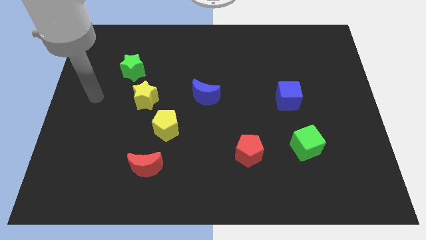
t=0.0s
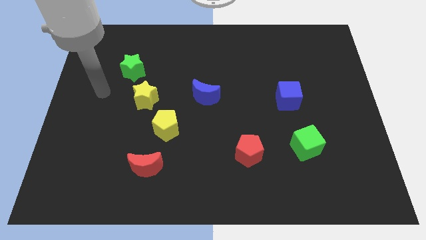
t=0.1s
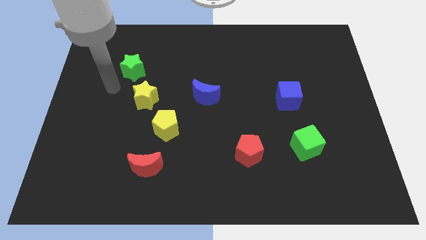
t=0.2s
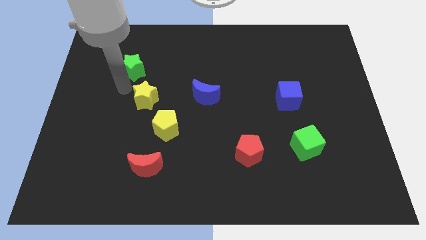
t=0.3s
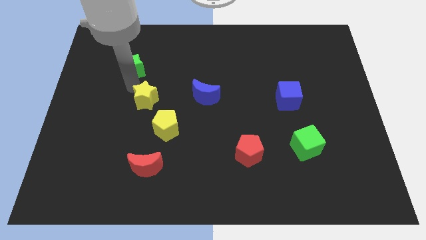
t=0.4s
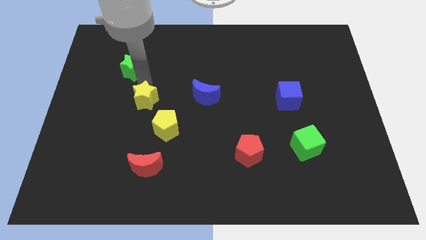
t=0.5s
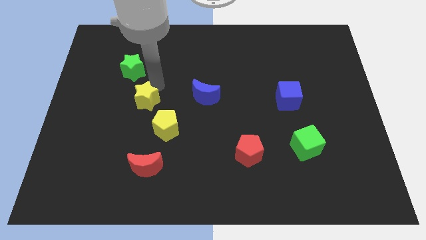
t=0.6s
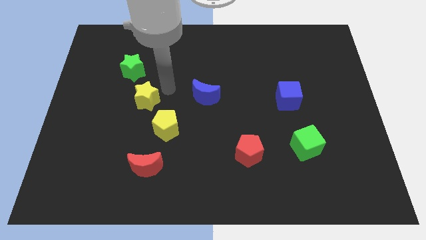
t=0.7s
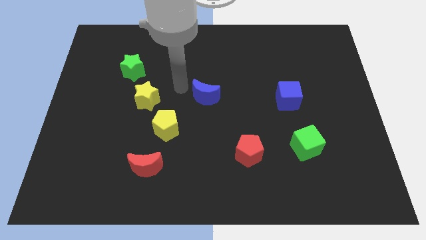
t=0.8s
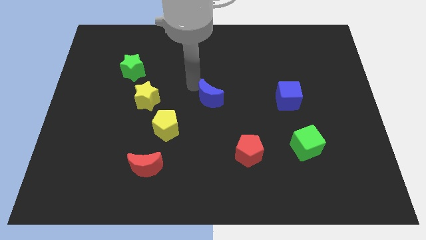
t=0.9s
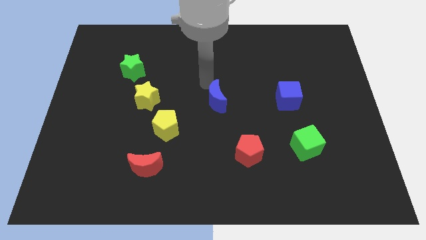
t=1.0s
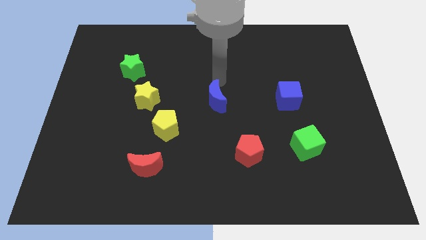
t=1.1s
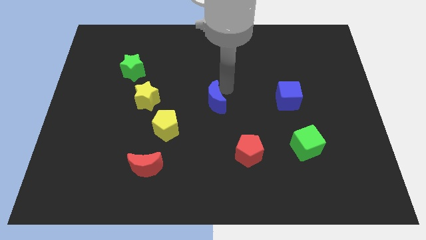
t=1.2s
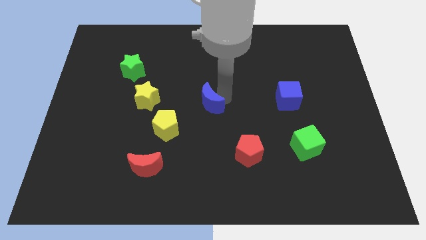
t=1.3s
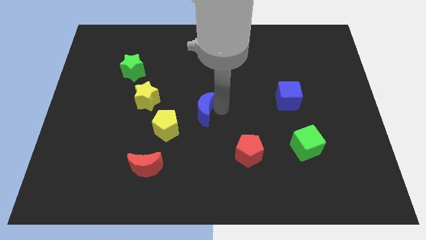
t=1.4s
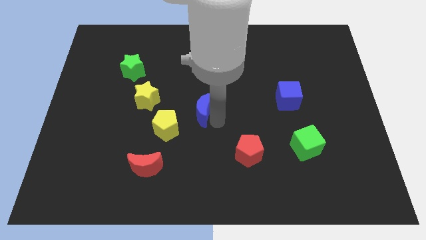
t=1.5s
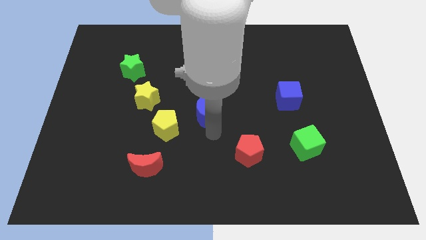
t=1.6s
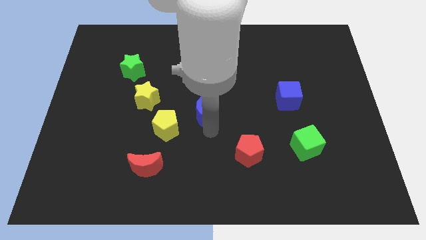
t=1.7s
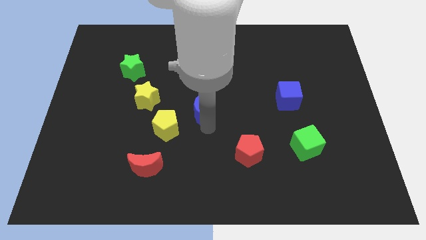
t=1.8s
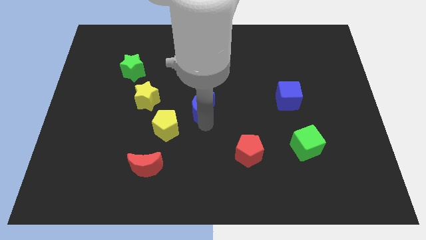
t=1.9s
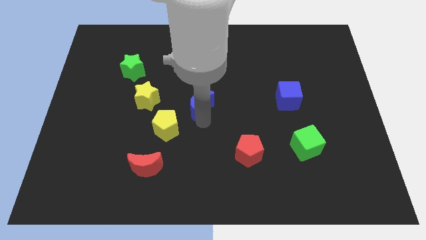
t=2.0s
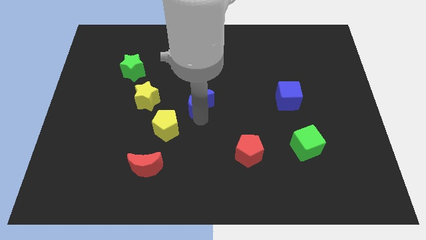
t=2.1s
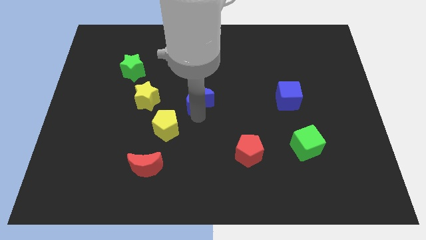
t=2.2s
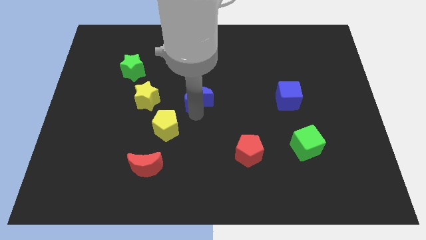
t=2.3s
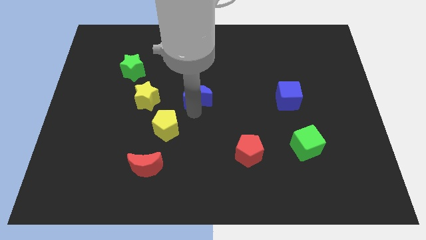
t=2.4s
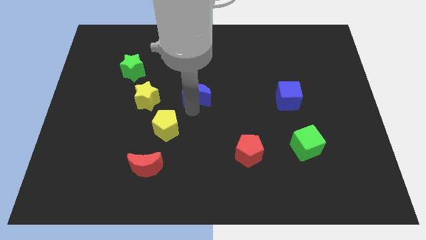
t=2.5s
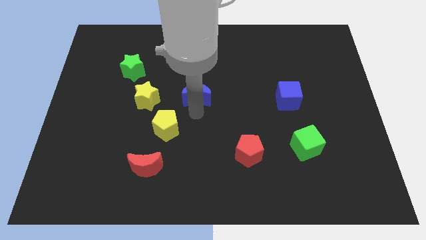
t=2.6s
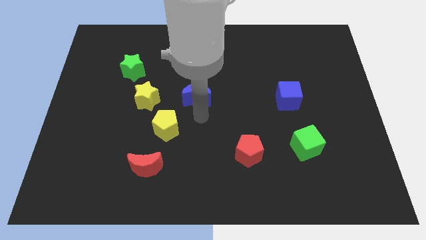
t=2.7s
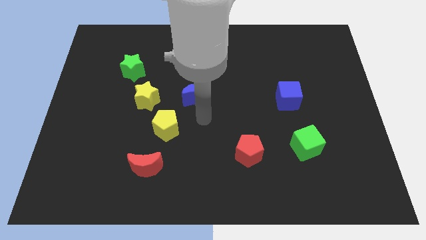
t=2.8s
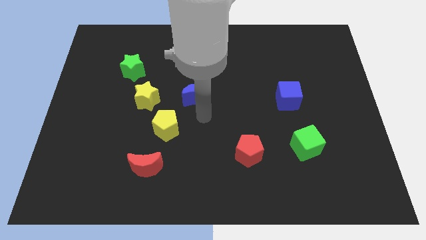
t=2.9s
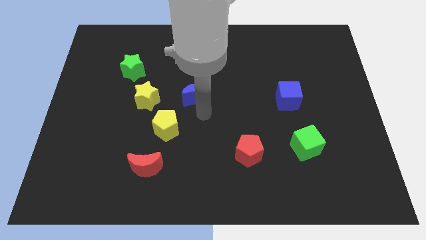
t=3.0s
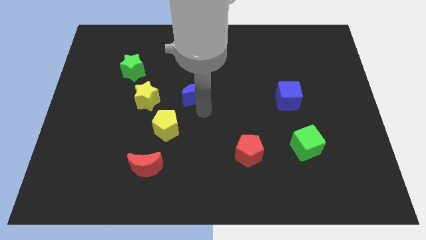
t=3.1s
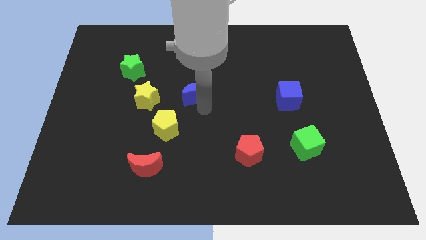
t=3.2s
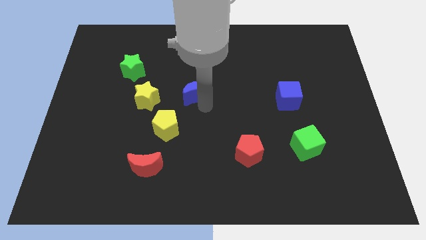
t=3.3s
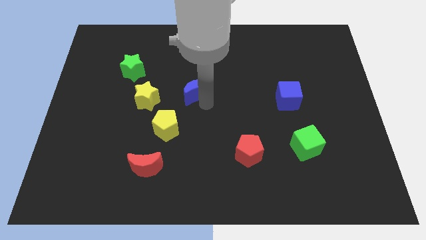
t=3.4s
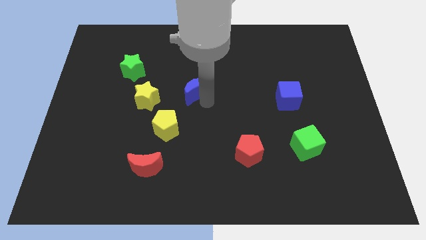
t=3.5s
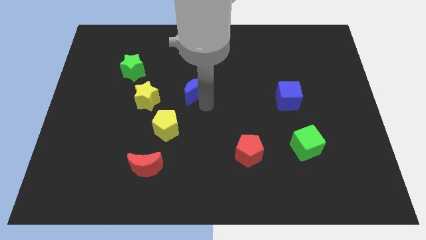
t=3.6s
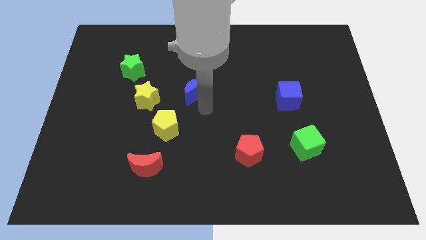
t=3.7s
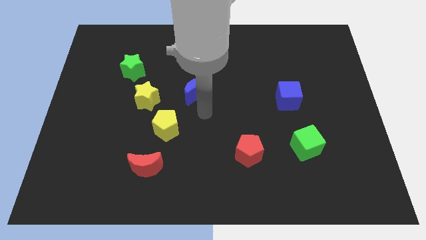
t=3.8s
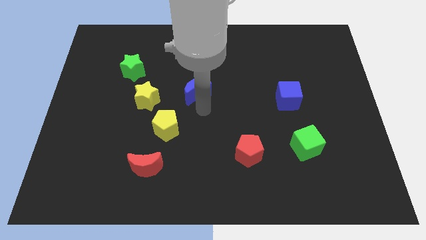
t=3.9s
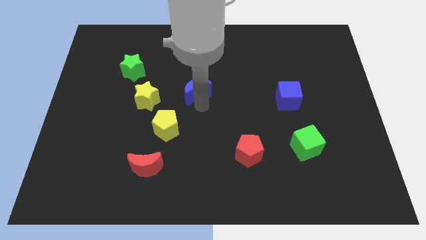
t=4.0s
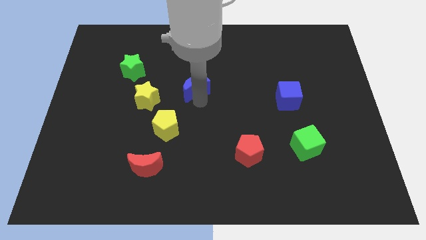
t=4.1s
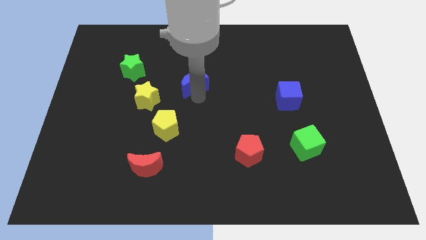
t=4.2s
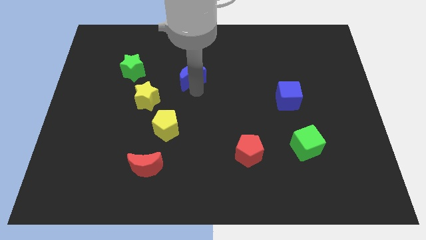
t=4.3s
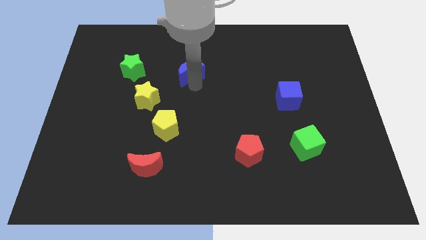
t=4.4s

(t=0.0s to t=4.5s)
slightly slide the blue moon diagonally upwards and to the left

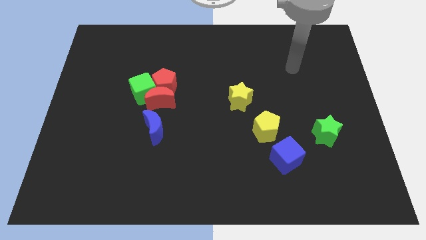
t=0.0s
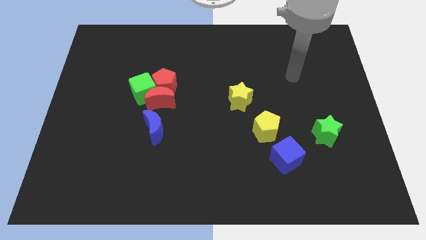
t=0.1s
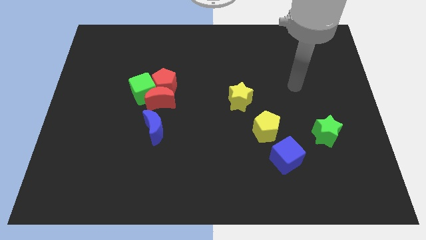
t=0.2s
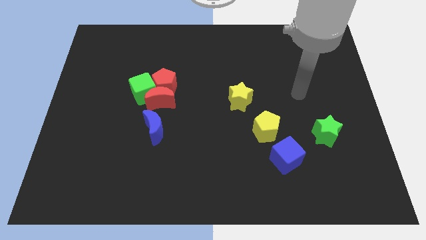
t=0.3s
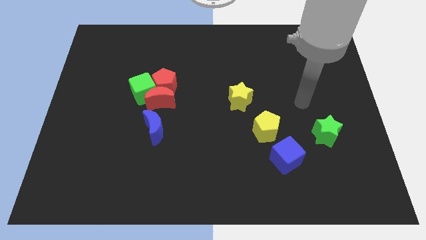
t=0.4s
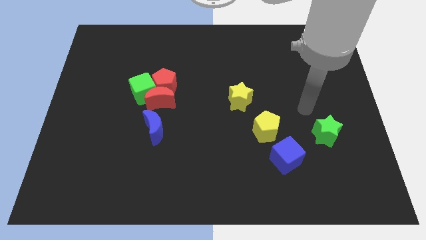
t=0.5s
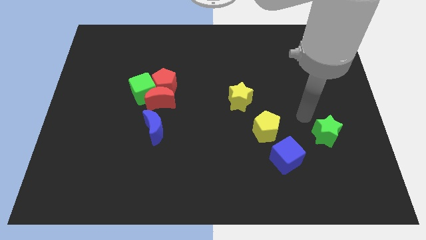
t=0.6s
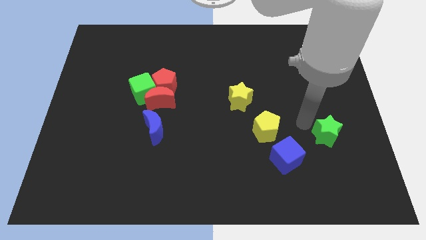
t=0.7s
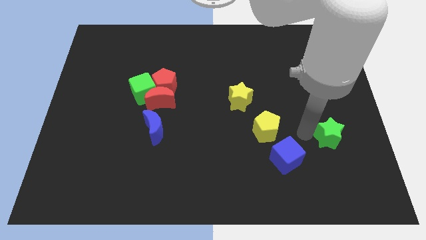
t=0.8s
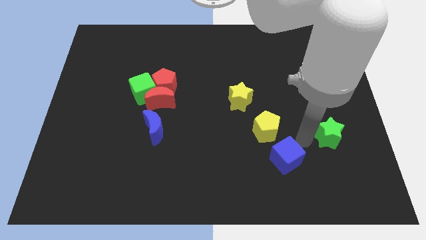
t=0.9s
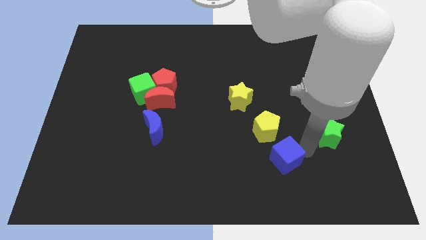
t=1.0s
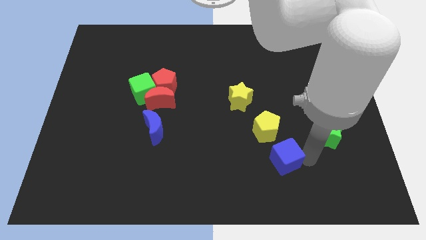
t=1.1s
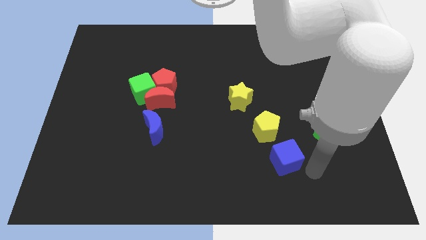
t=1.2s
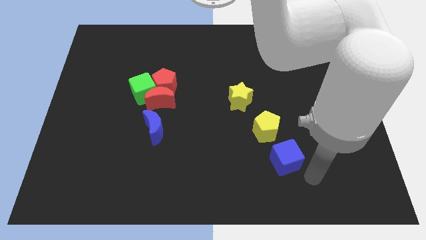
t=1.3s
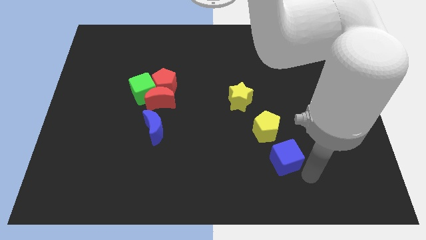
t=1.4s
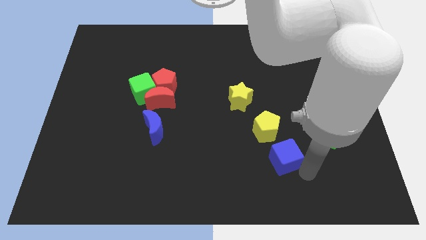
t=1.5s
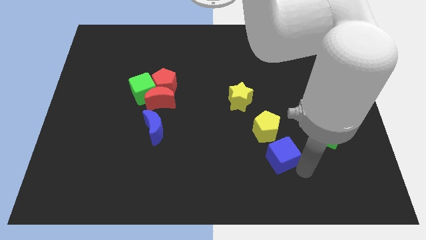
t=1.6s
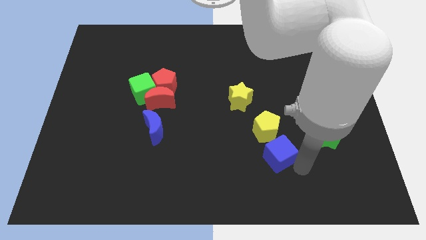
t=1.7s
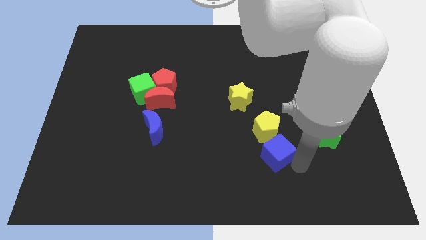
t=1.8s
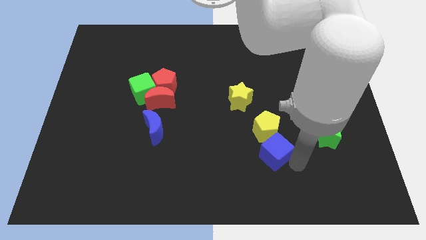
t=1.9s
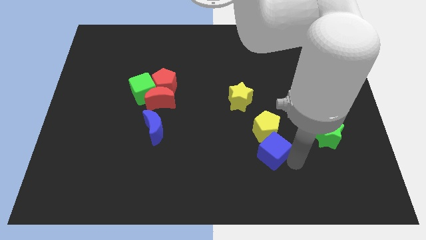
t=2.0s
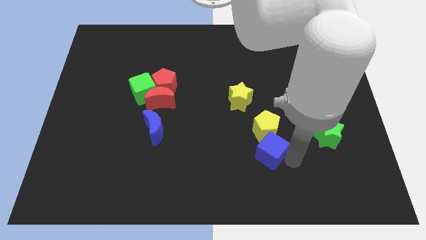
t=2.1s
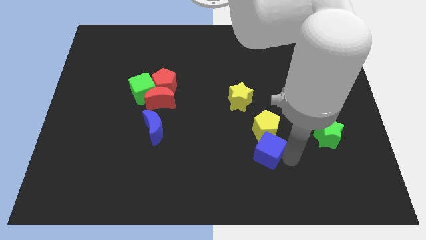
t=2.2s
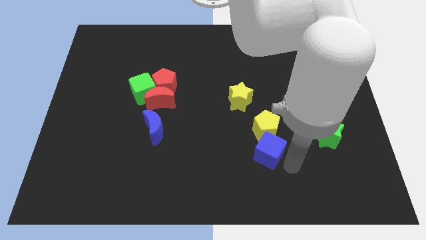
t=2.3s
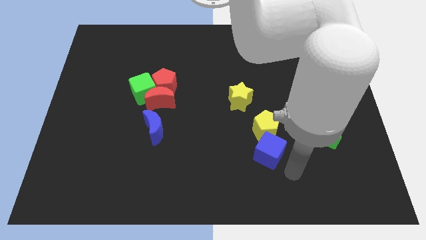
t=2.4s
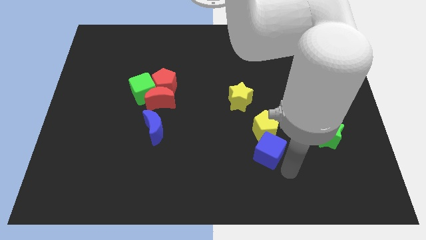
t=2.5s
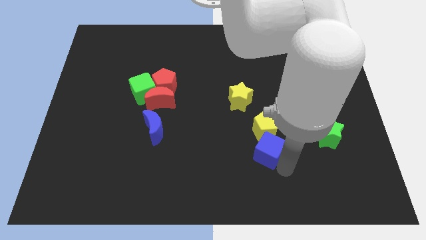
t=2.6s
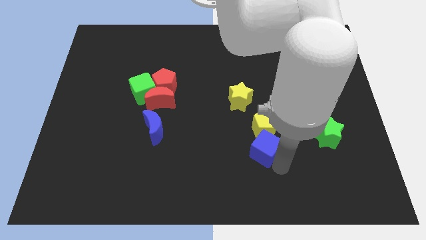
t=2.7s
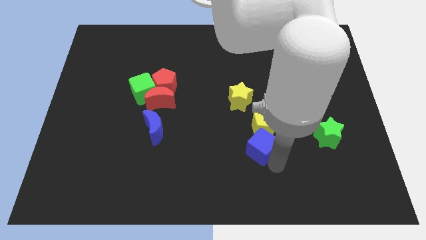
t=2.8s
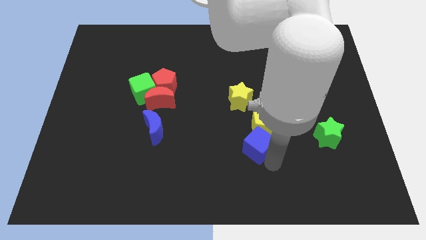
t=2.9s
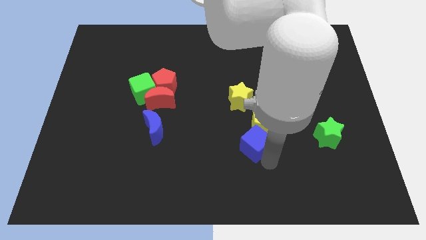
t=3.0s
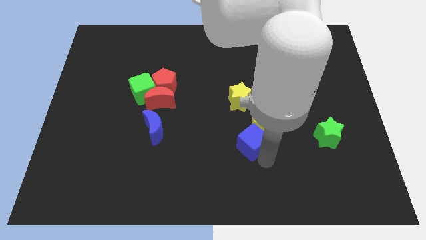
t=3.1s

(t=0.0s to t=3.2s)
push the blue cube somewhat upwards and to the left diagonally

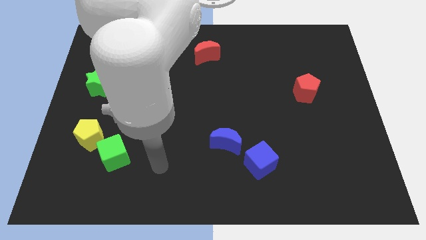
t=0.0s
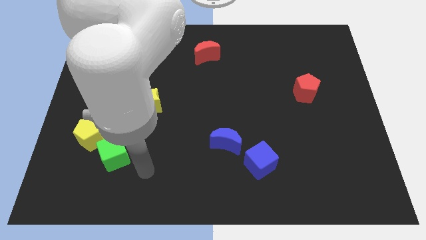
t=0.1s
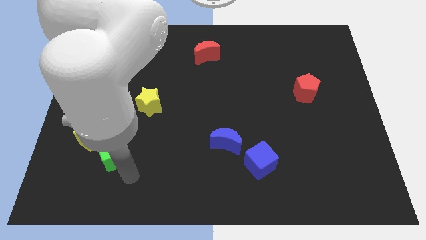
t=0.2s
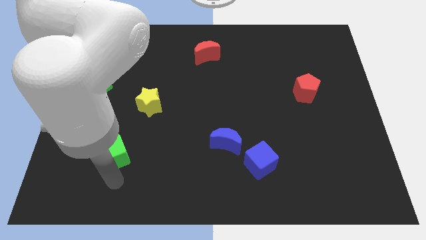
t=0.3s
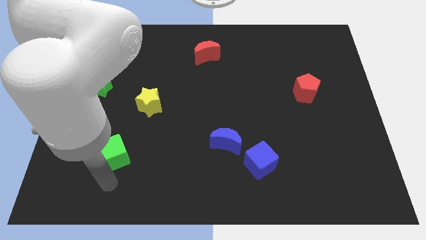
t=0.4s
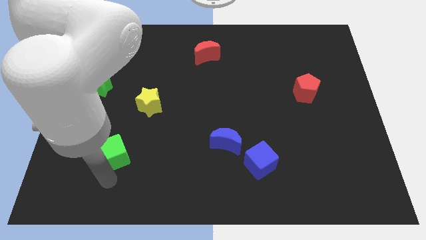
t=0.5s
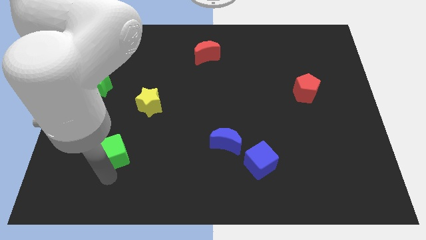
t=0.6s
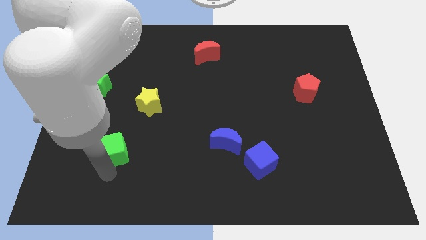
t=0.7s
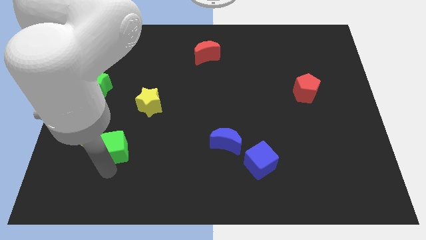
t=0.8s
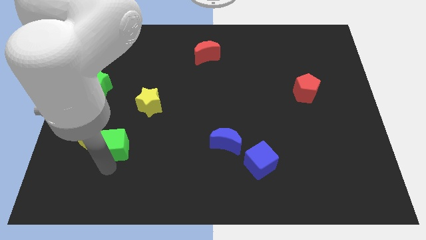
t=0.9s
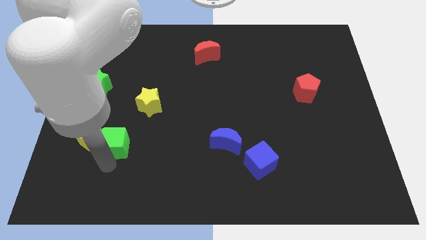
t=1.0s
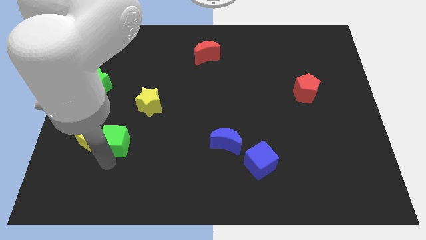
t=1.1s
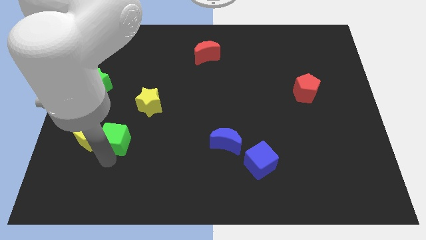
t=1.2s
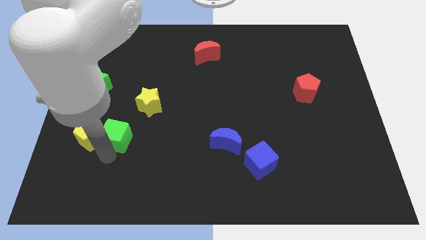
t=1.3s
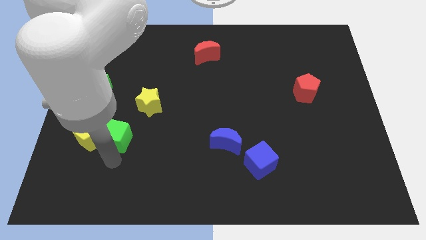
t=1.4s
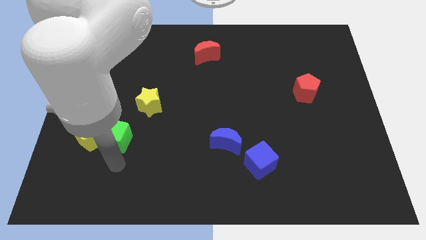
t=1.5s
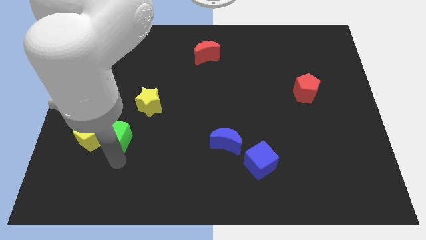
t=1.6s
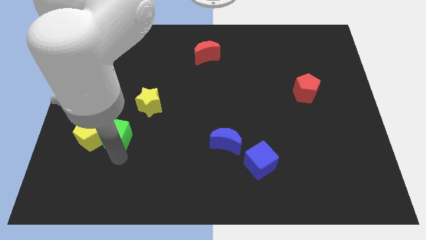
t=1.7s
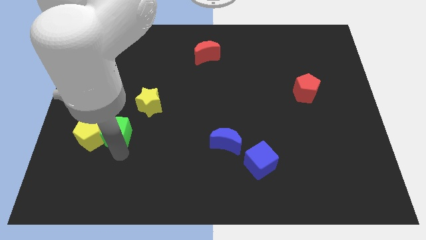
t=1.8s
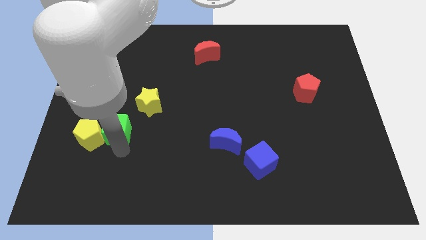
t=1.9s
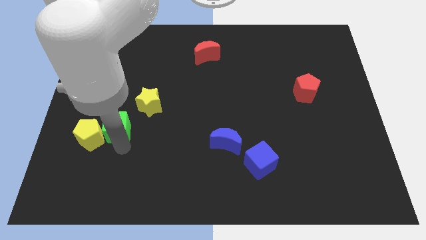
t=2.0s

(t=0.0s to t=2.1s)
push the green cube upwards slightly
